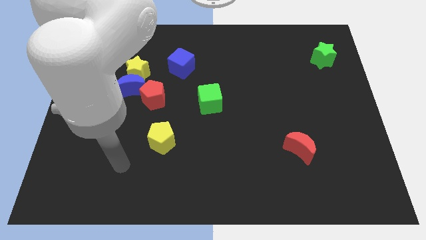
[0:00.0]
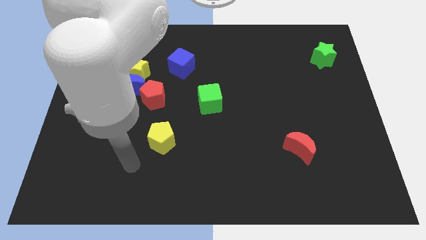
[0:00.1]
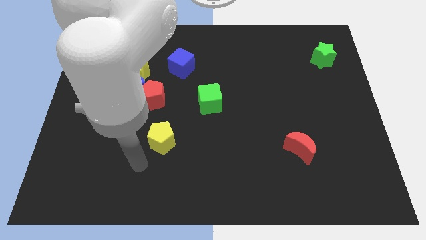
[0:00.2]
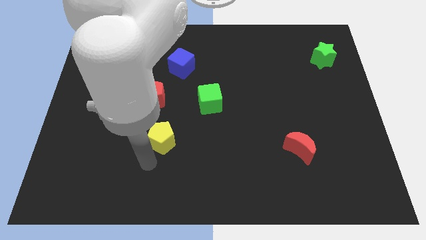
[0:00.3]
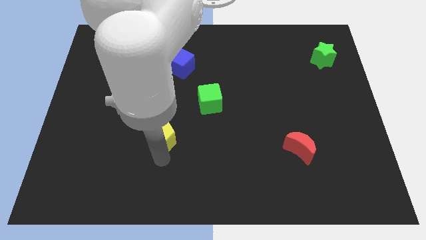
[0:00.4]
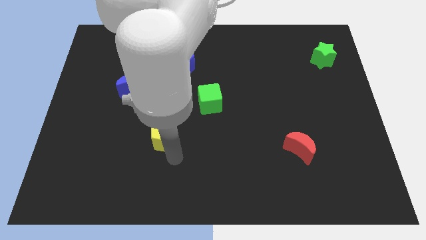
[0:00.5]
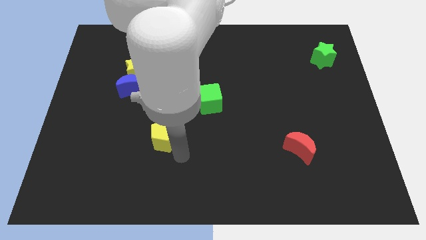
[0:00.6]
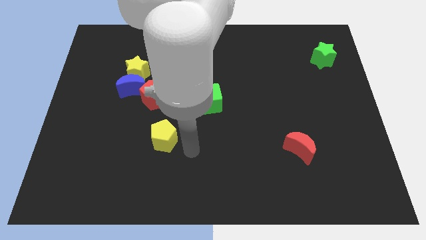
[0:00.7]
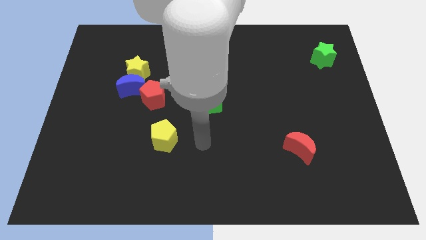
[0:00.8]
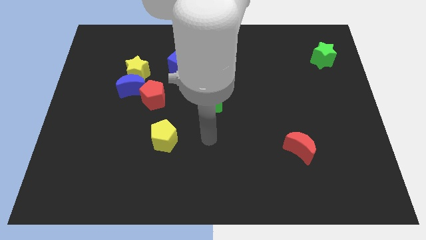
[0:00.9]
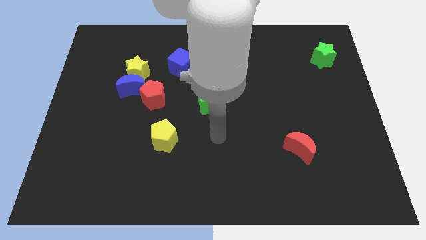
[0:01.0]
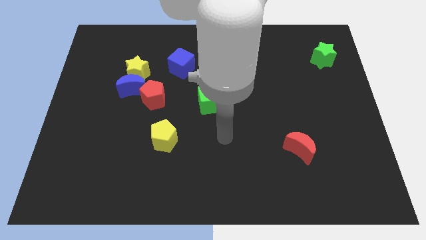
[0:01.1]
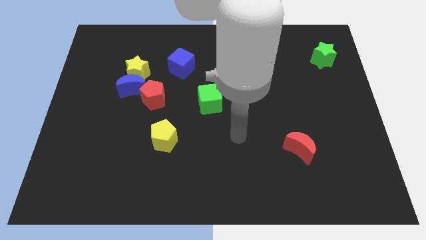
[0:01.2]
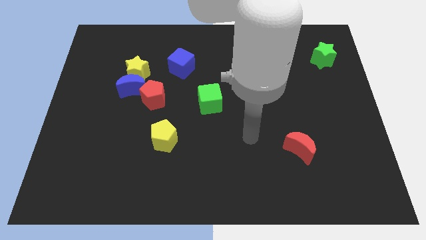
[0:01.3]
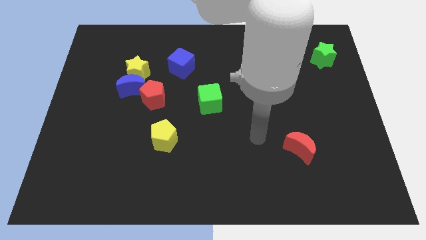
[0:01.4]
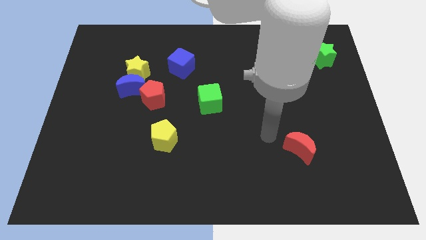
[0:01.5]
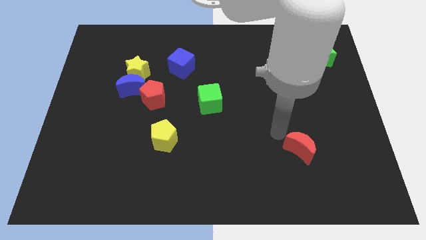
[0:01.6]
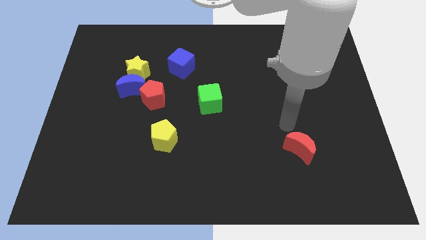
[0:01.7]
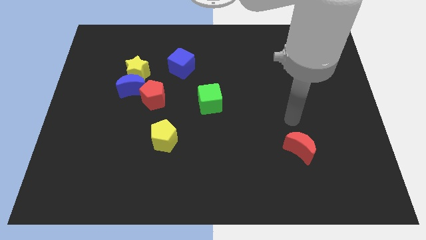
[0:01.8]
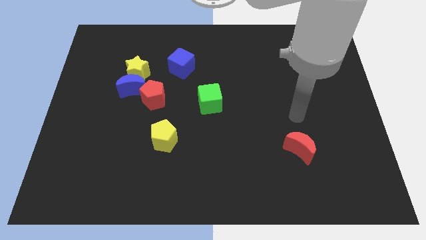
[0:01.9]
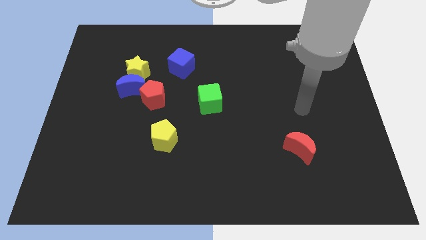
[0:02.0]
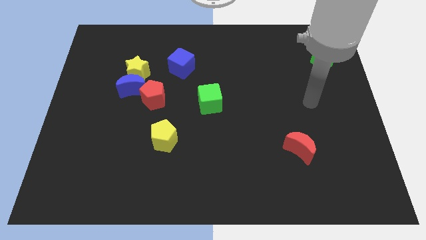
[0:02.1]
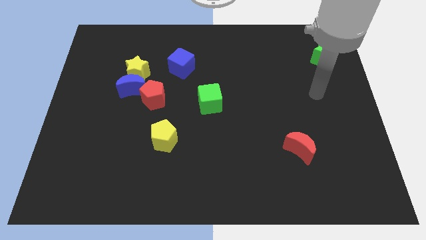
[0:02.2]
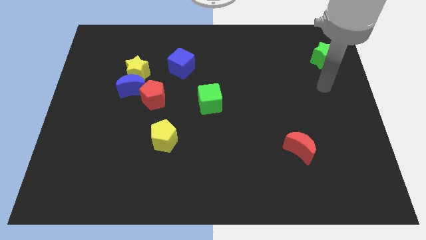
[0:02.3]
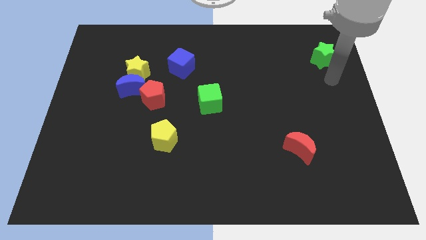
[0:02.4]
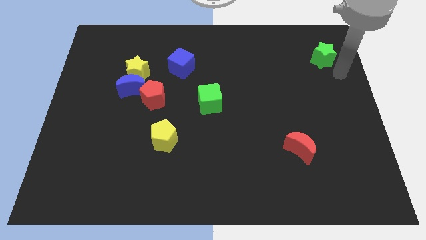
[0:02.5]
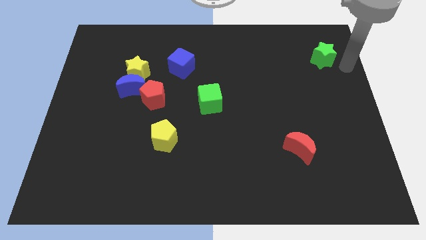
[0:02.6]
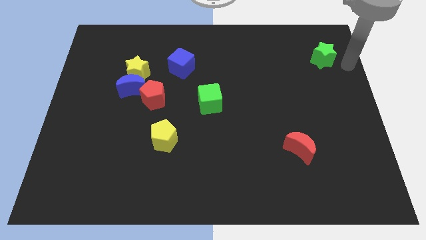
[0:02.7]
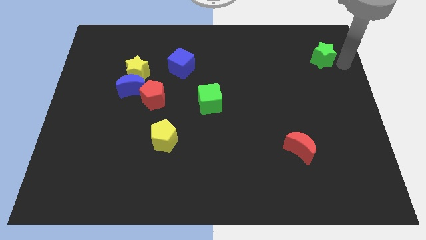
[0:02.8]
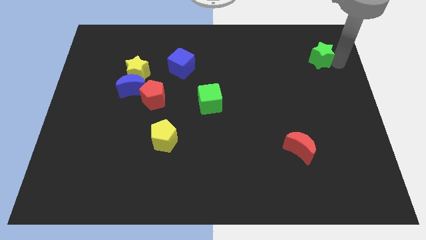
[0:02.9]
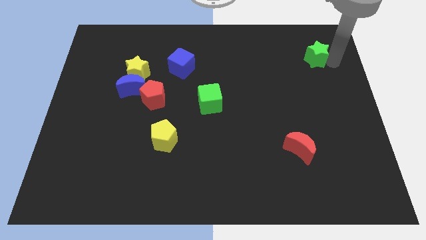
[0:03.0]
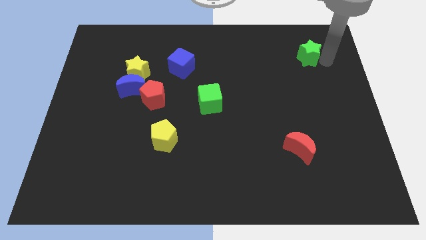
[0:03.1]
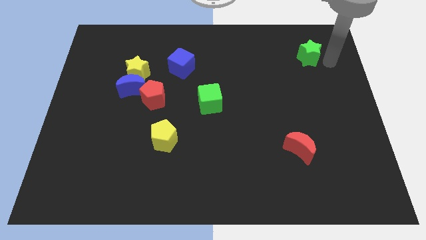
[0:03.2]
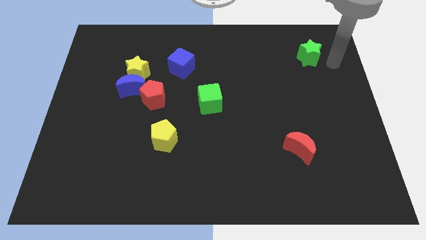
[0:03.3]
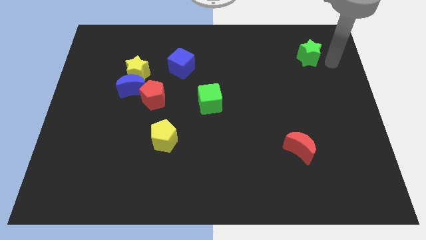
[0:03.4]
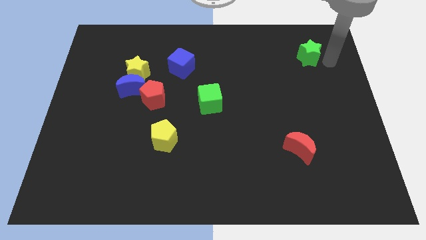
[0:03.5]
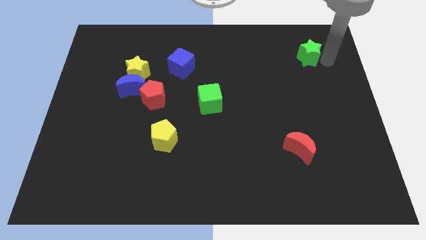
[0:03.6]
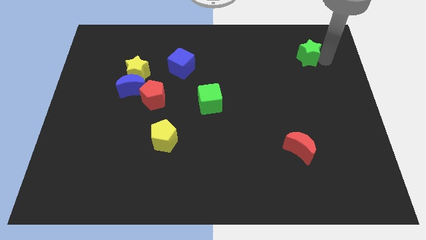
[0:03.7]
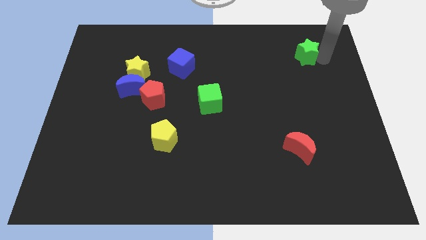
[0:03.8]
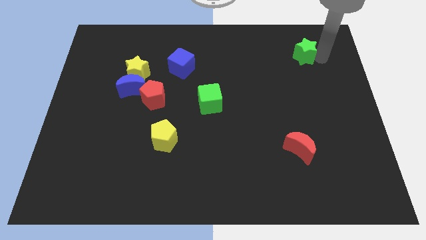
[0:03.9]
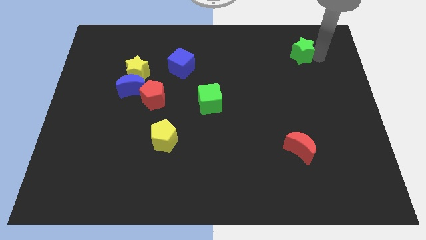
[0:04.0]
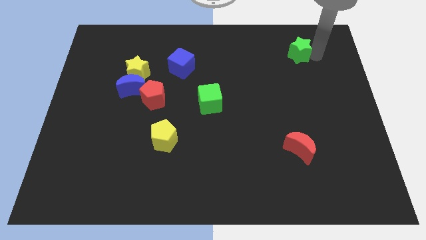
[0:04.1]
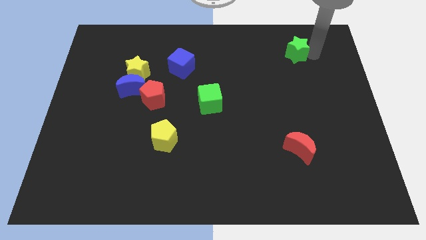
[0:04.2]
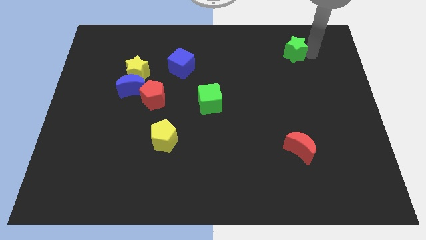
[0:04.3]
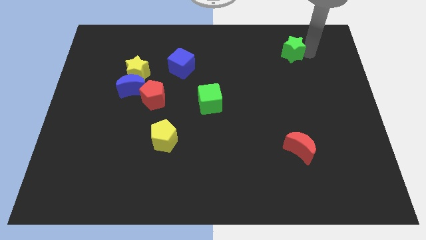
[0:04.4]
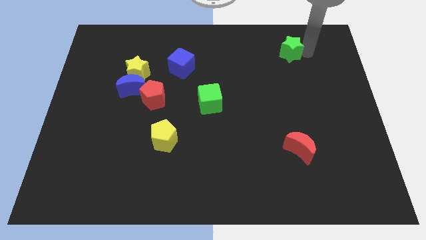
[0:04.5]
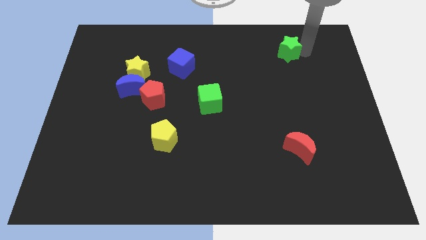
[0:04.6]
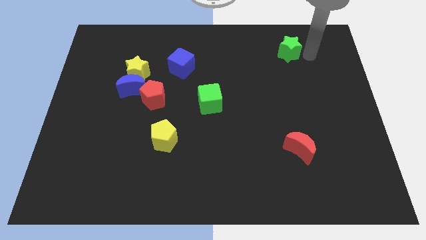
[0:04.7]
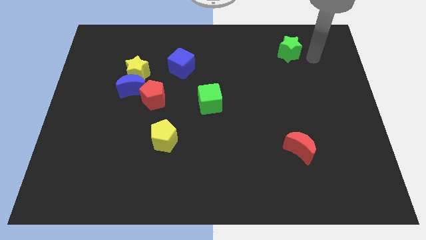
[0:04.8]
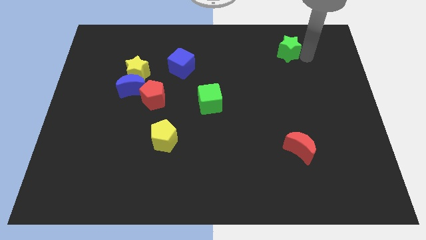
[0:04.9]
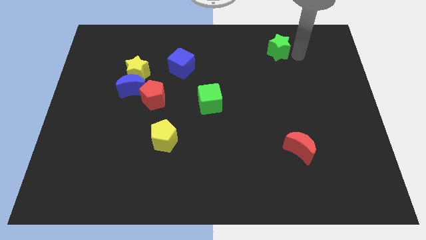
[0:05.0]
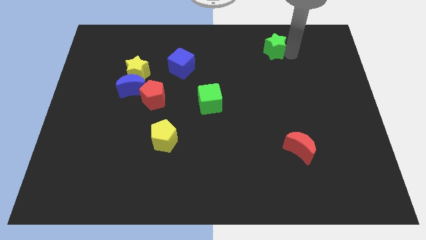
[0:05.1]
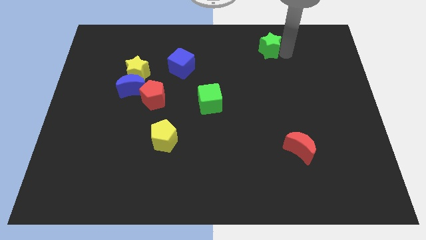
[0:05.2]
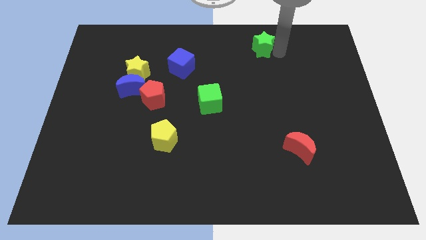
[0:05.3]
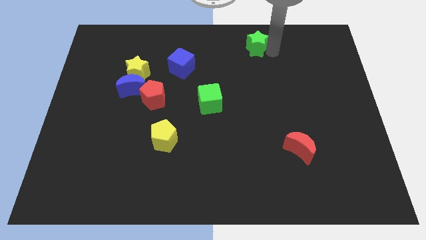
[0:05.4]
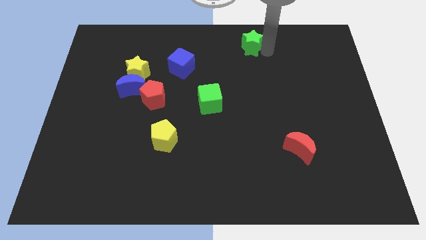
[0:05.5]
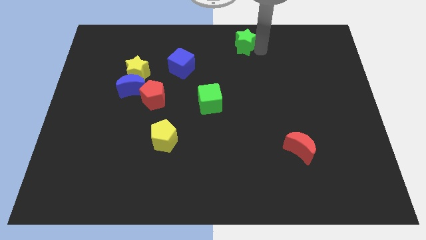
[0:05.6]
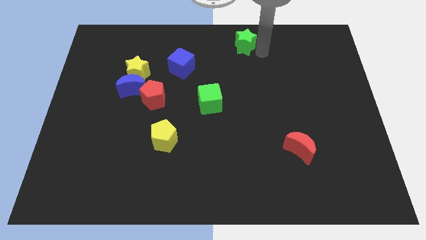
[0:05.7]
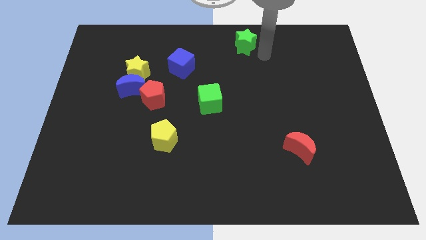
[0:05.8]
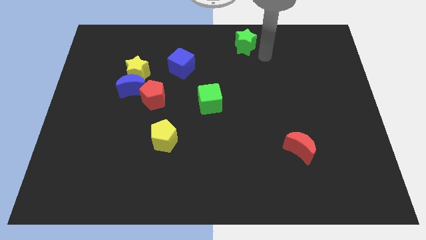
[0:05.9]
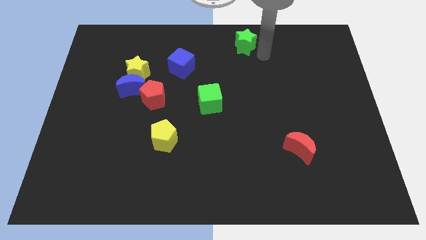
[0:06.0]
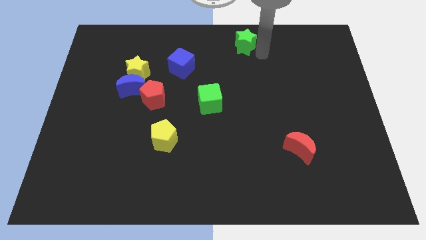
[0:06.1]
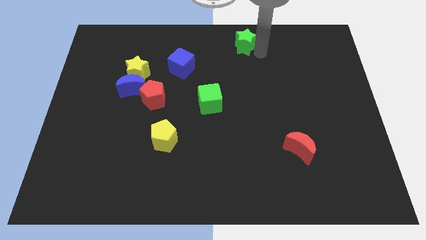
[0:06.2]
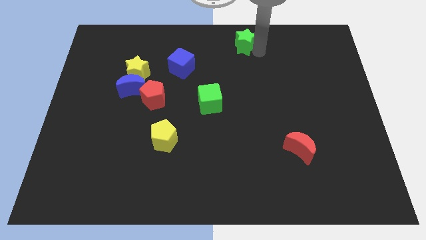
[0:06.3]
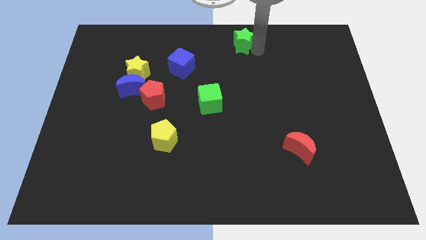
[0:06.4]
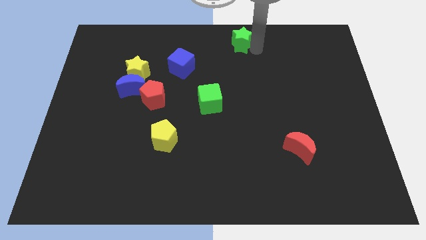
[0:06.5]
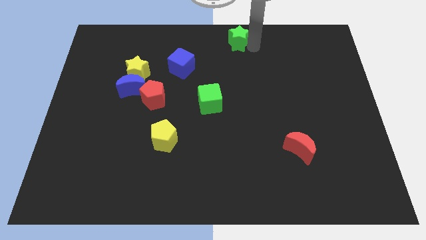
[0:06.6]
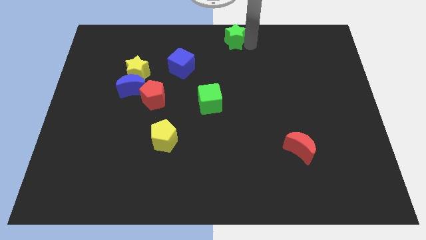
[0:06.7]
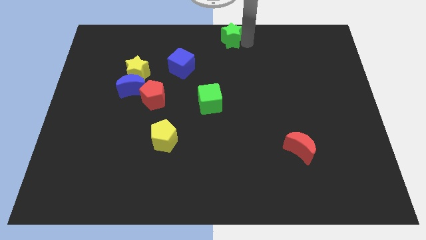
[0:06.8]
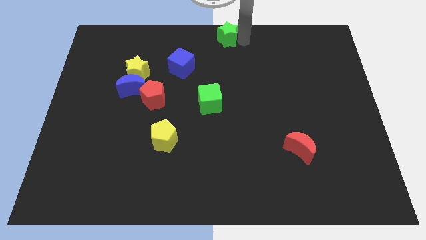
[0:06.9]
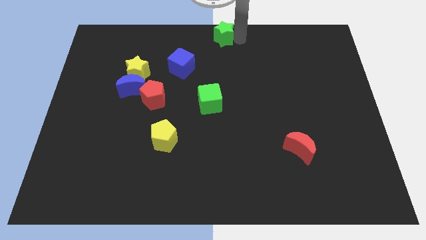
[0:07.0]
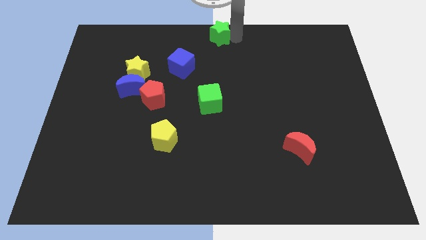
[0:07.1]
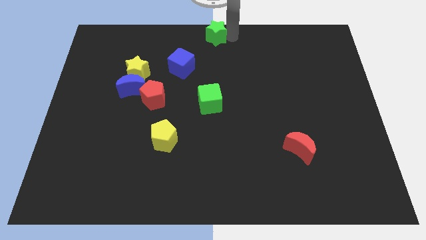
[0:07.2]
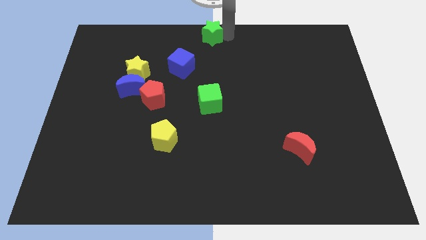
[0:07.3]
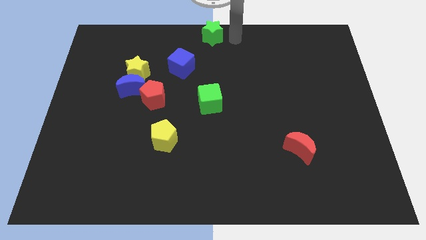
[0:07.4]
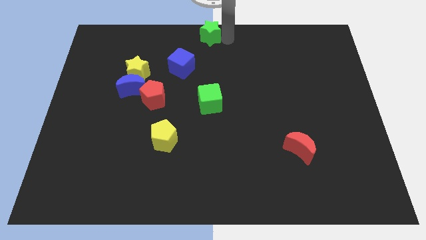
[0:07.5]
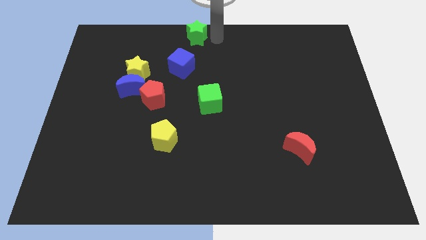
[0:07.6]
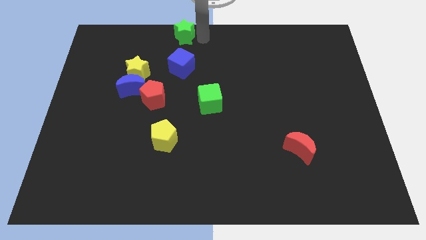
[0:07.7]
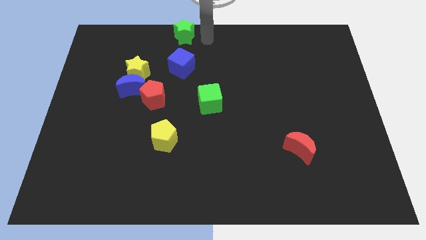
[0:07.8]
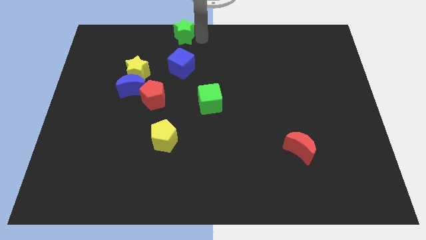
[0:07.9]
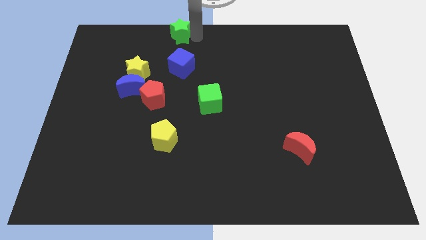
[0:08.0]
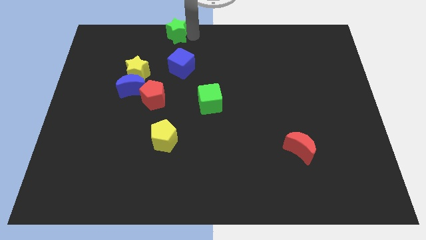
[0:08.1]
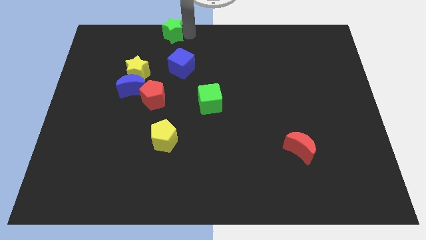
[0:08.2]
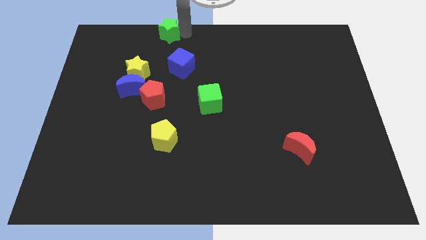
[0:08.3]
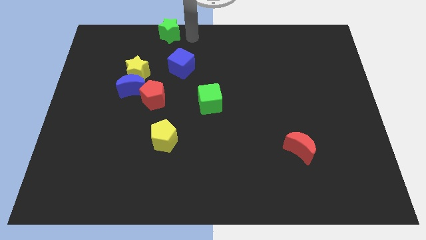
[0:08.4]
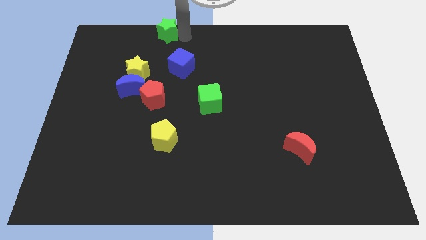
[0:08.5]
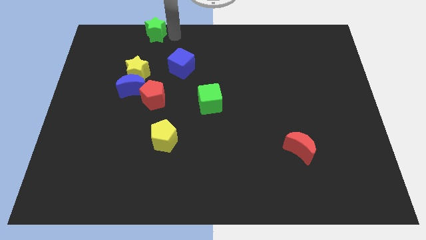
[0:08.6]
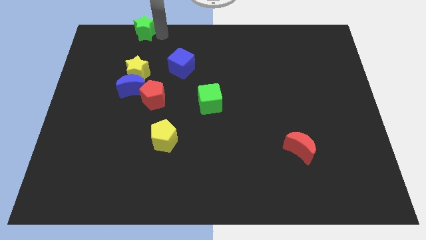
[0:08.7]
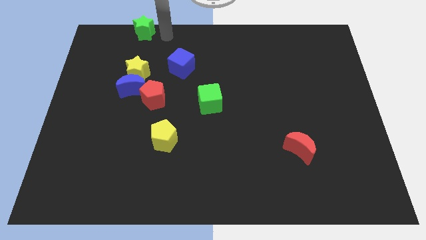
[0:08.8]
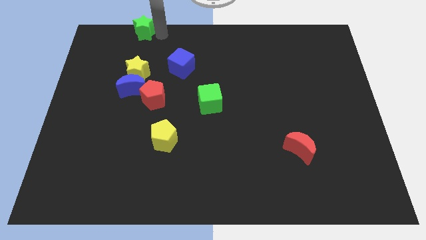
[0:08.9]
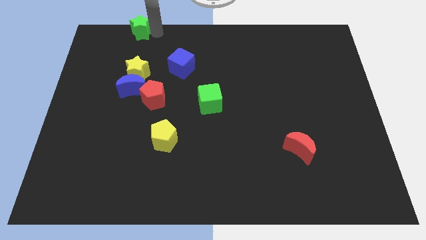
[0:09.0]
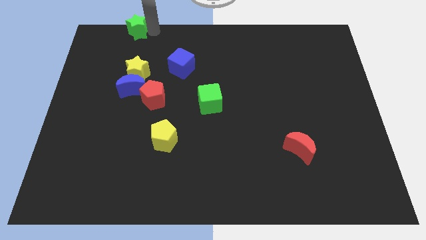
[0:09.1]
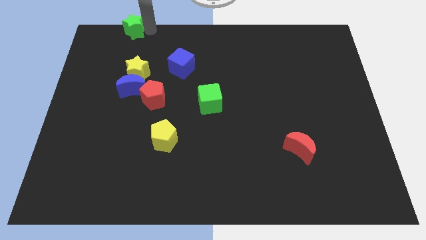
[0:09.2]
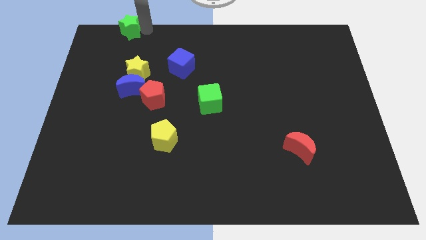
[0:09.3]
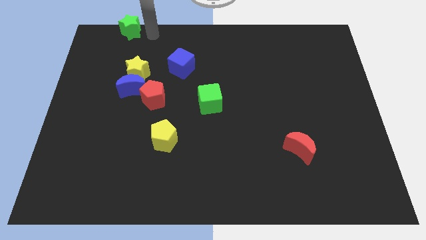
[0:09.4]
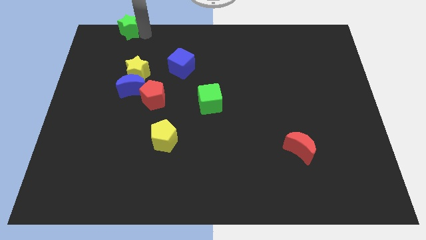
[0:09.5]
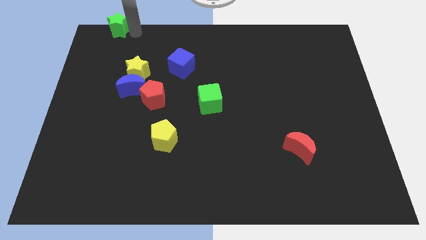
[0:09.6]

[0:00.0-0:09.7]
put the green star to the top left corner
